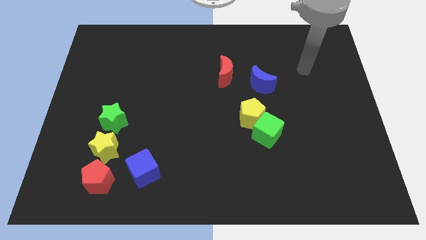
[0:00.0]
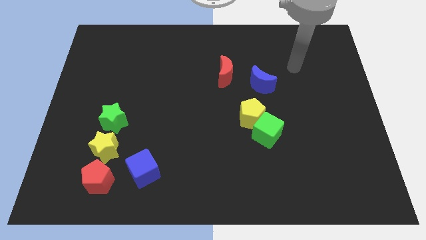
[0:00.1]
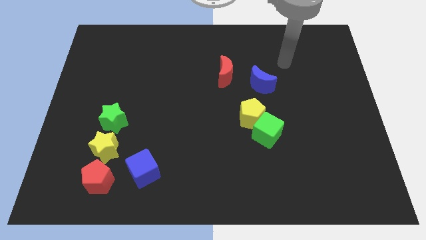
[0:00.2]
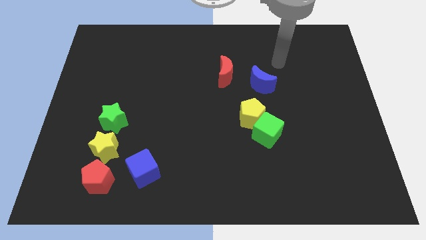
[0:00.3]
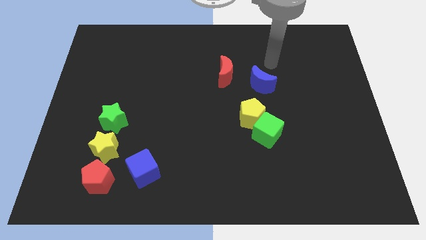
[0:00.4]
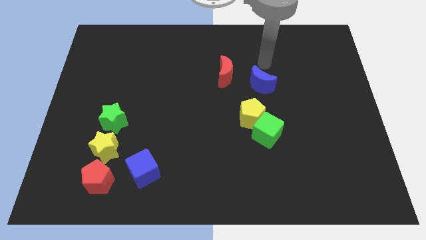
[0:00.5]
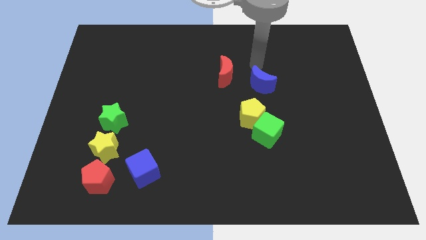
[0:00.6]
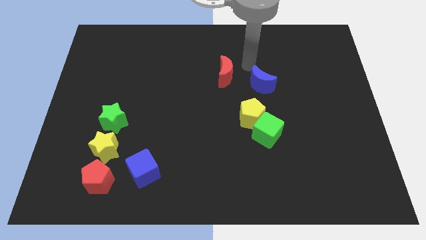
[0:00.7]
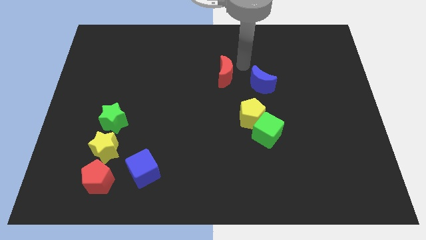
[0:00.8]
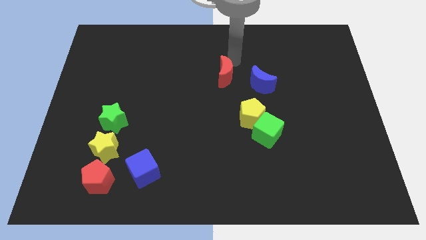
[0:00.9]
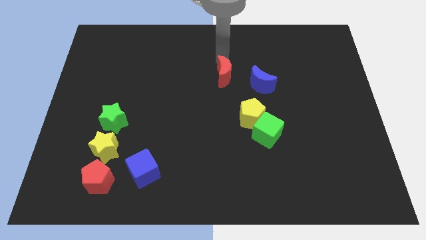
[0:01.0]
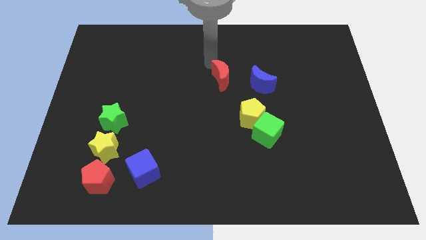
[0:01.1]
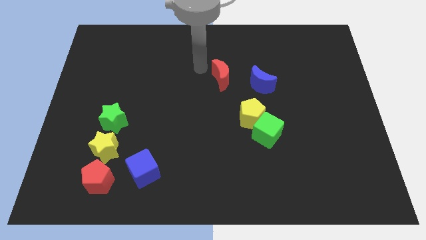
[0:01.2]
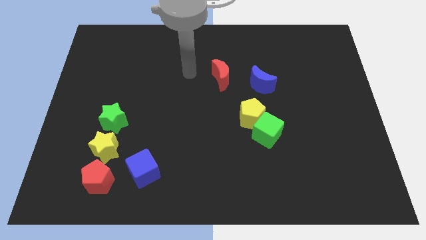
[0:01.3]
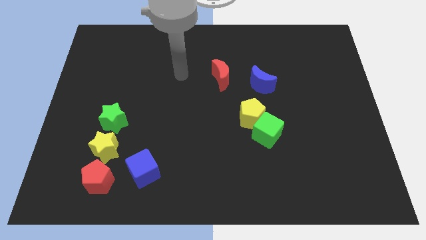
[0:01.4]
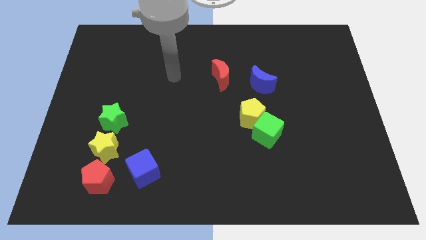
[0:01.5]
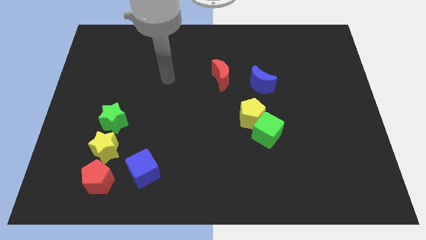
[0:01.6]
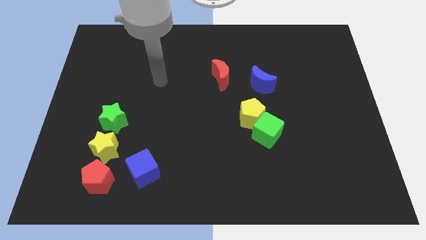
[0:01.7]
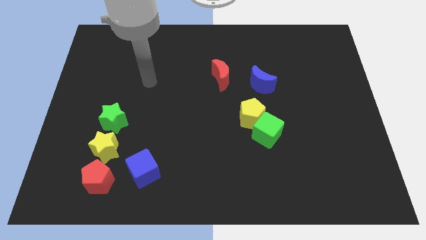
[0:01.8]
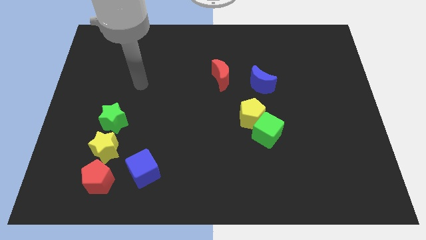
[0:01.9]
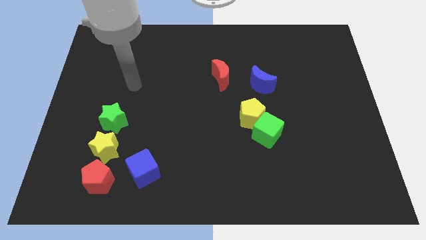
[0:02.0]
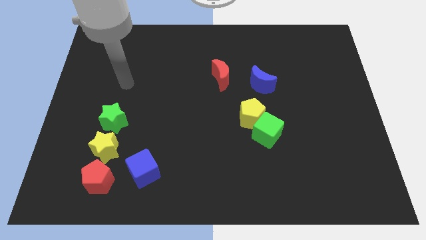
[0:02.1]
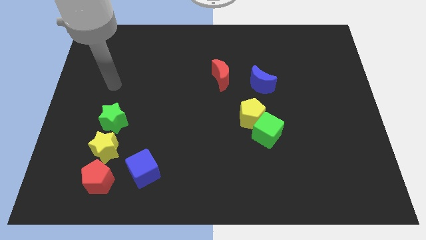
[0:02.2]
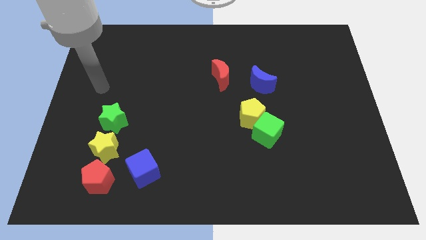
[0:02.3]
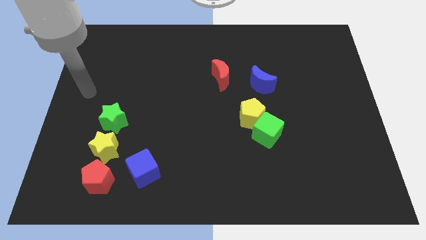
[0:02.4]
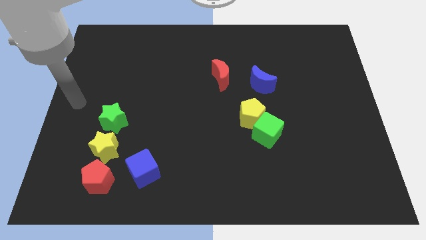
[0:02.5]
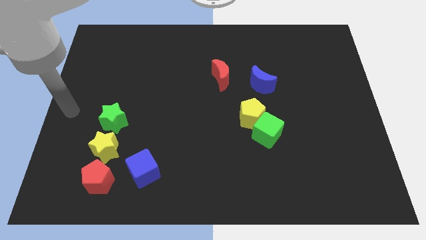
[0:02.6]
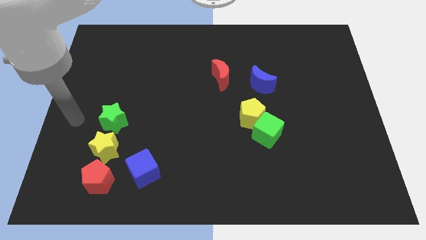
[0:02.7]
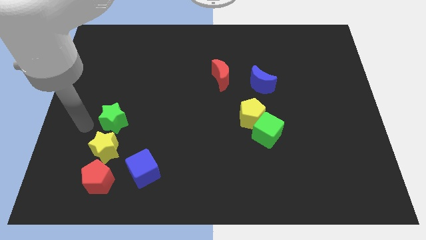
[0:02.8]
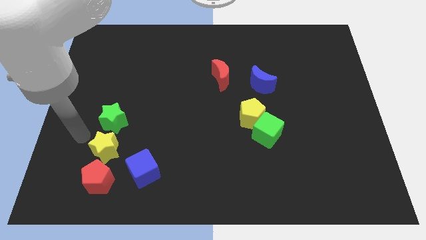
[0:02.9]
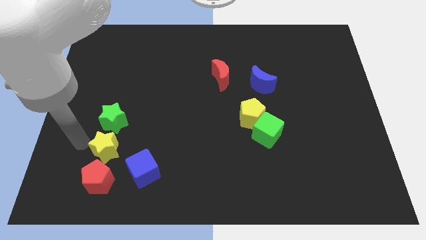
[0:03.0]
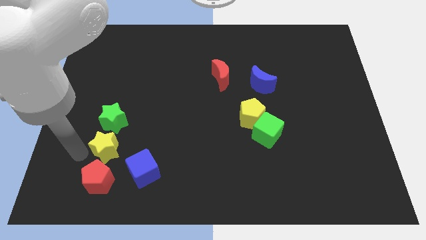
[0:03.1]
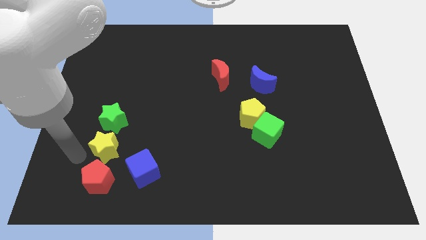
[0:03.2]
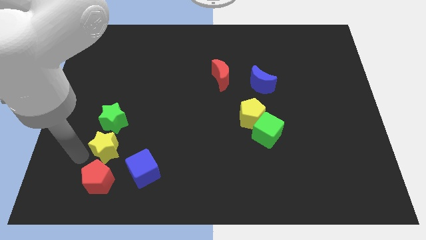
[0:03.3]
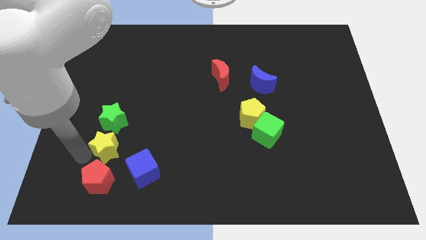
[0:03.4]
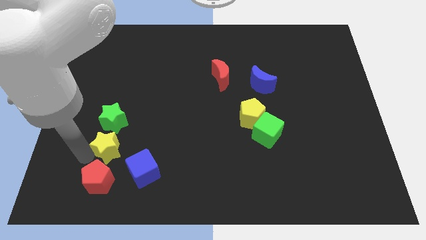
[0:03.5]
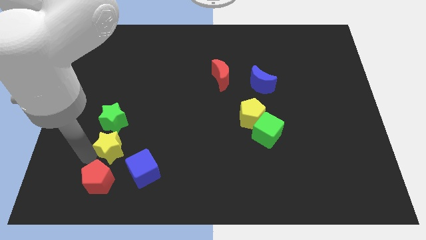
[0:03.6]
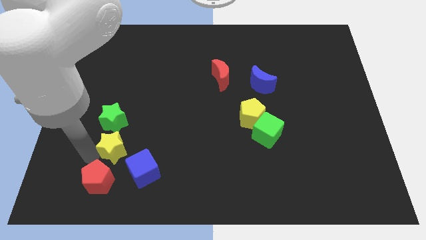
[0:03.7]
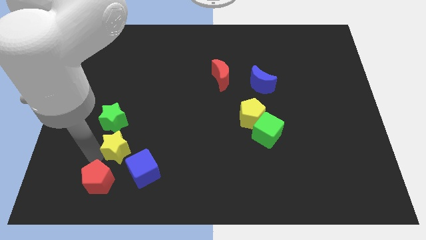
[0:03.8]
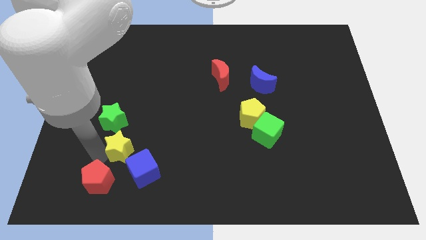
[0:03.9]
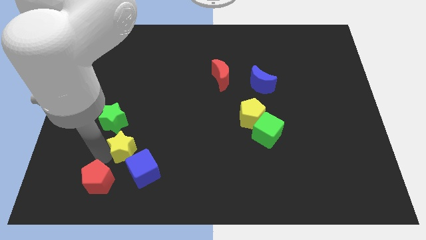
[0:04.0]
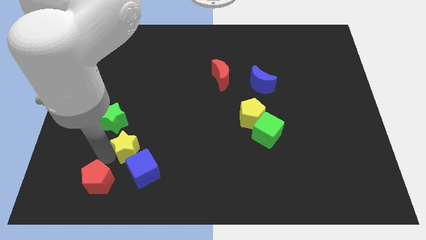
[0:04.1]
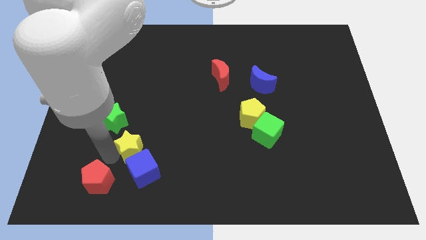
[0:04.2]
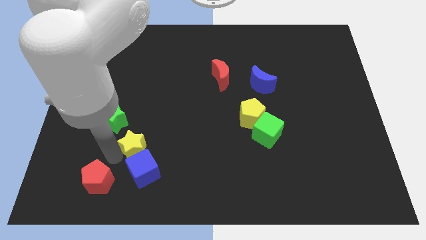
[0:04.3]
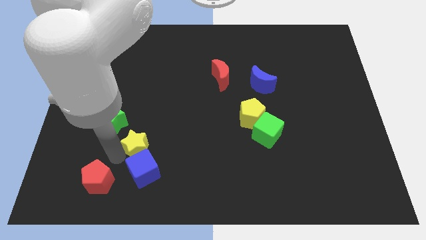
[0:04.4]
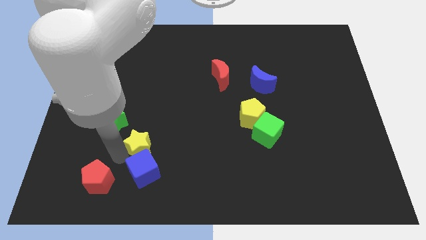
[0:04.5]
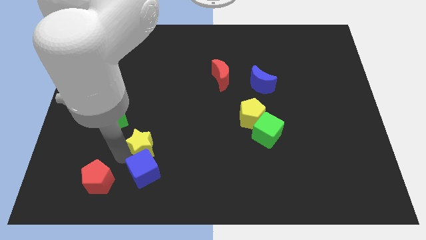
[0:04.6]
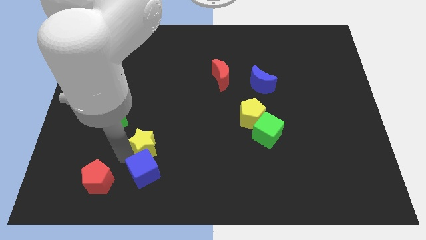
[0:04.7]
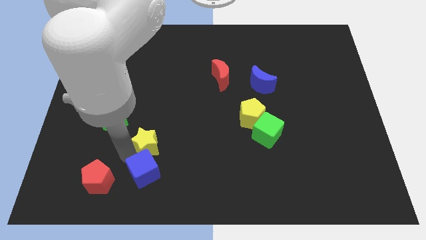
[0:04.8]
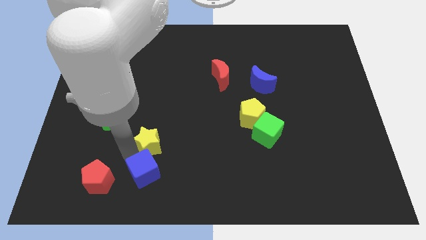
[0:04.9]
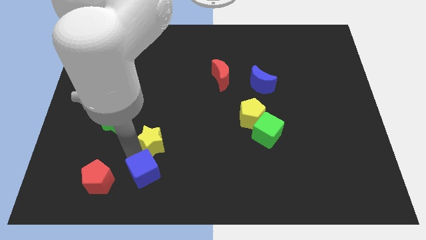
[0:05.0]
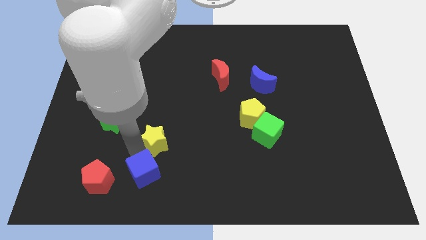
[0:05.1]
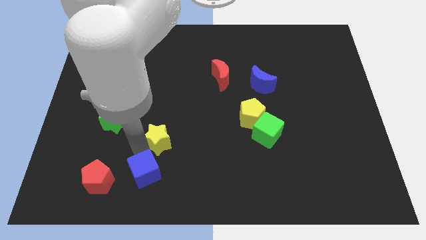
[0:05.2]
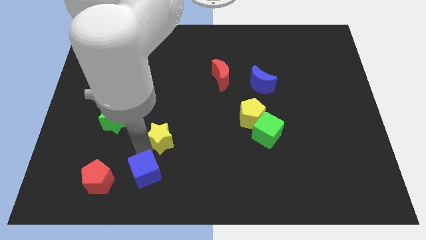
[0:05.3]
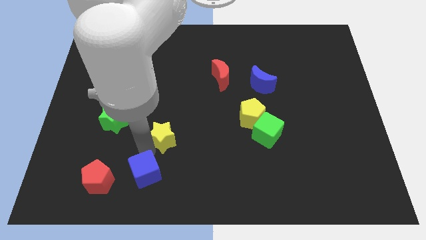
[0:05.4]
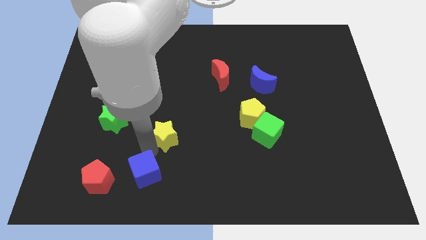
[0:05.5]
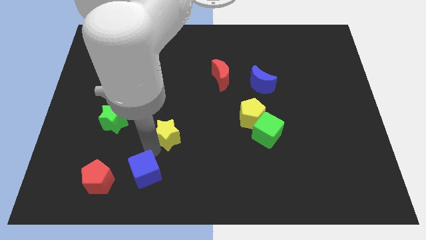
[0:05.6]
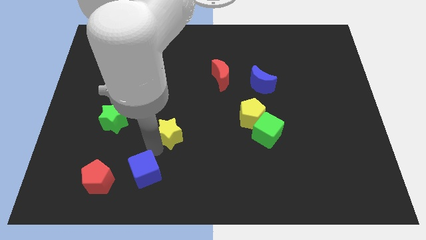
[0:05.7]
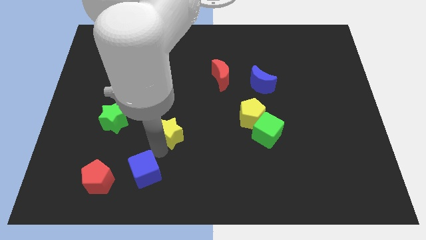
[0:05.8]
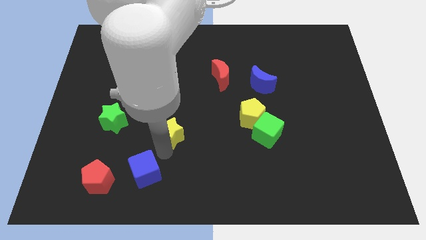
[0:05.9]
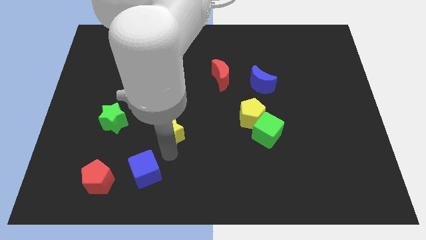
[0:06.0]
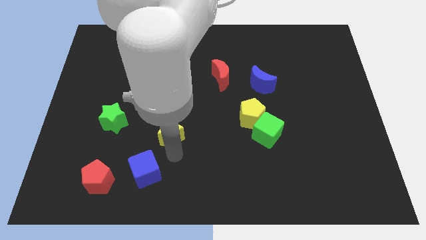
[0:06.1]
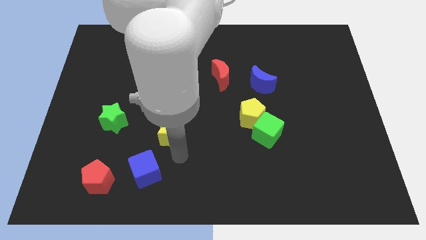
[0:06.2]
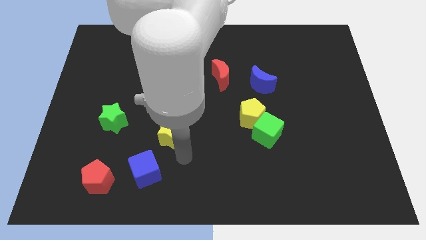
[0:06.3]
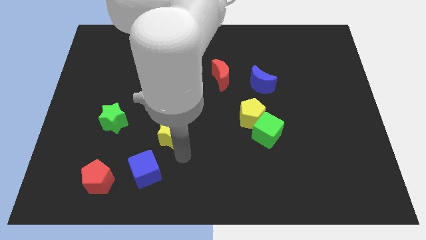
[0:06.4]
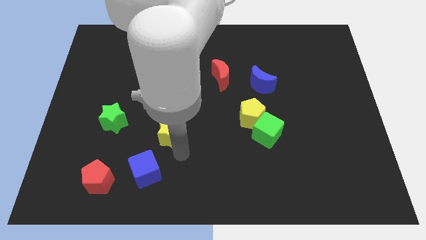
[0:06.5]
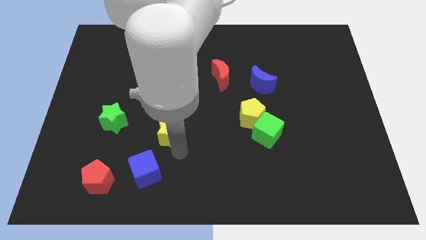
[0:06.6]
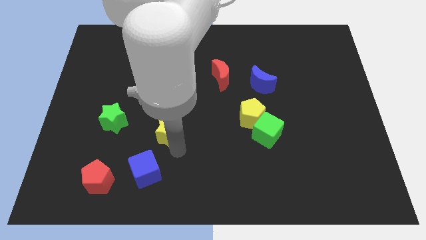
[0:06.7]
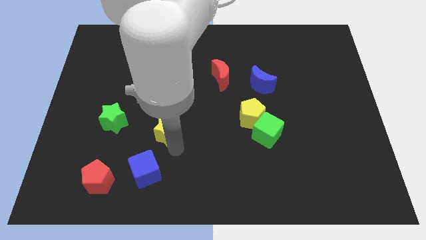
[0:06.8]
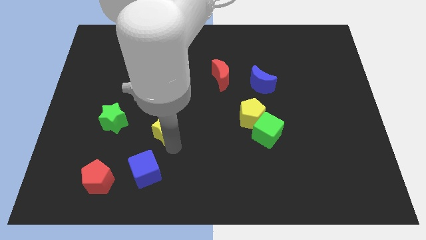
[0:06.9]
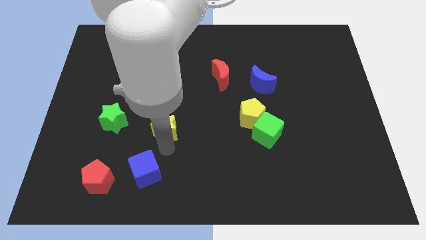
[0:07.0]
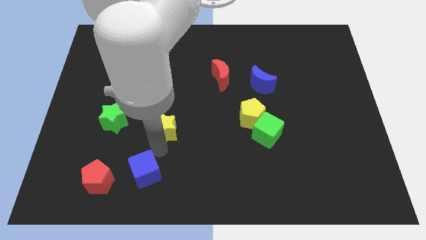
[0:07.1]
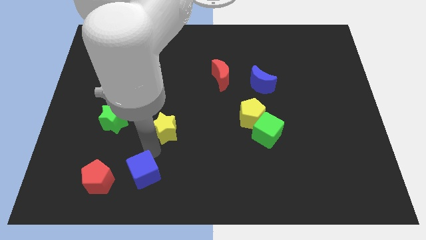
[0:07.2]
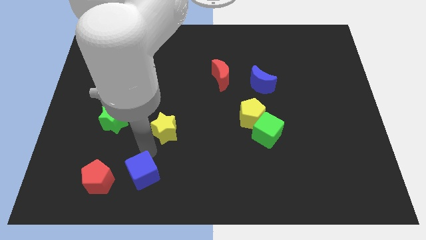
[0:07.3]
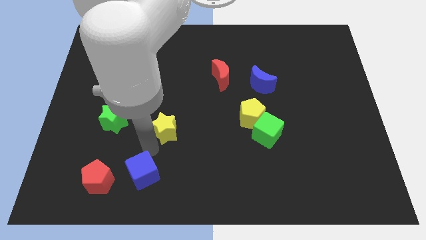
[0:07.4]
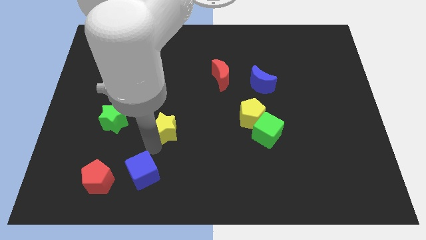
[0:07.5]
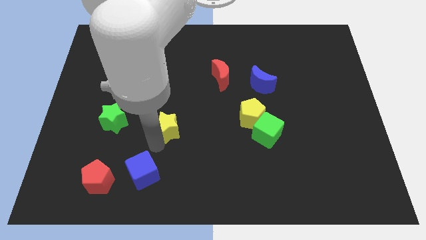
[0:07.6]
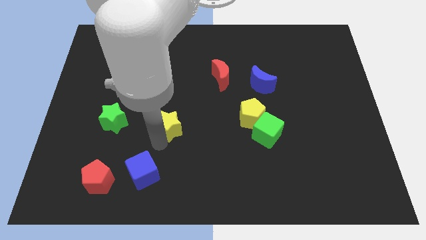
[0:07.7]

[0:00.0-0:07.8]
slide the yellow star to the center

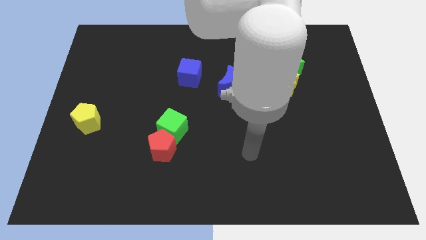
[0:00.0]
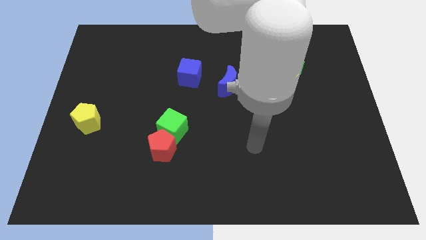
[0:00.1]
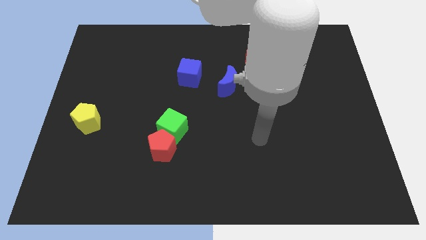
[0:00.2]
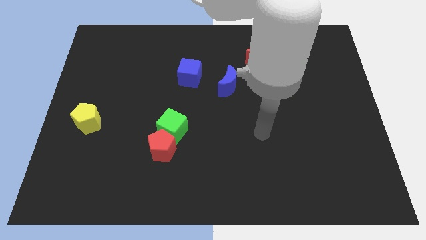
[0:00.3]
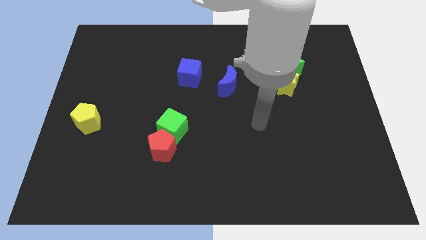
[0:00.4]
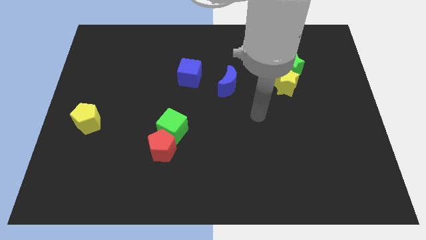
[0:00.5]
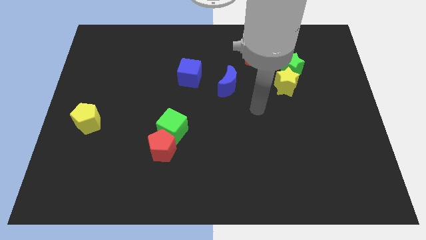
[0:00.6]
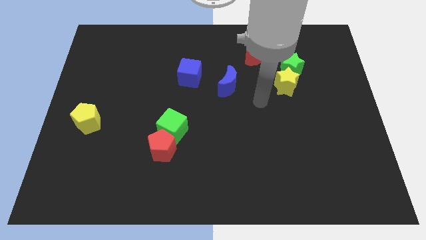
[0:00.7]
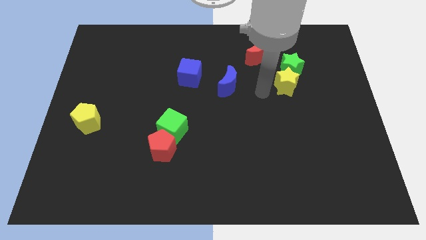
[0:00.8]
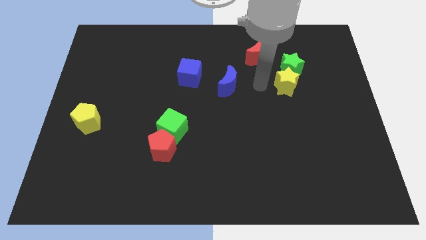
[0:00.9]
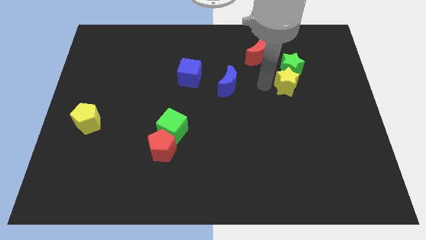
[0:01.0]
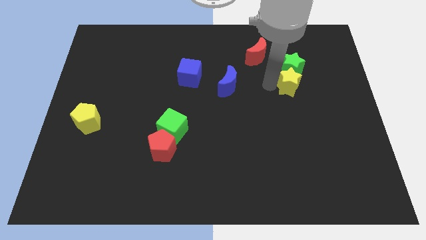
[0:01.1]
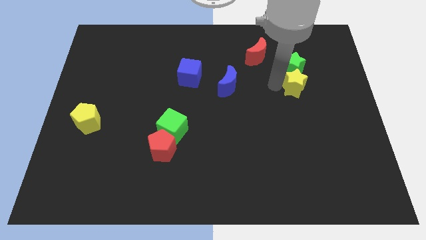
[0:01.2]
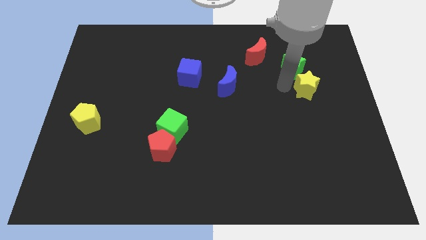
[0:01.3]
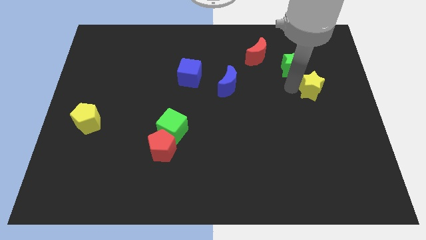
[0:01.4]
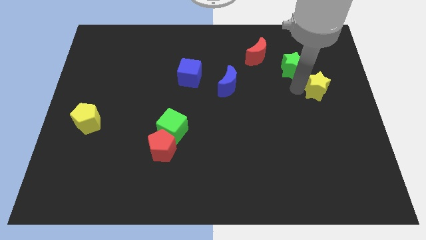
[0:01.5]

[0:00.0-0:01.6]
slide the yellow star to the right side
